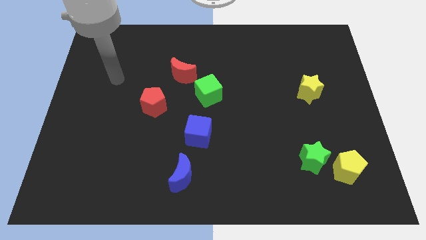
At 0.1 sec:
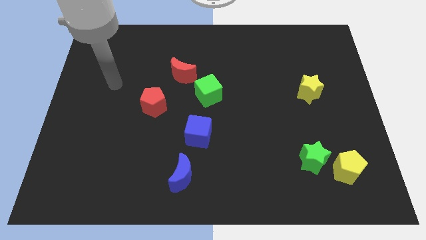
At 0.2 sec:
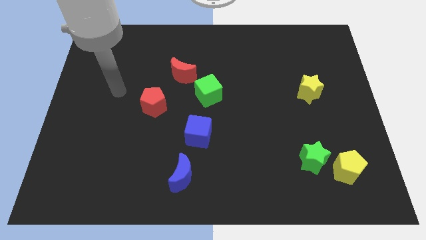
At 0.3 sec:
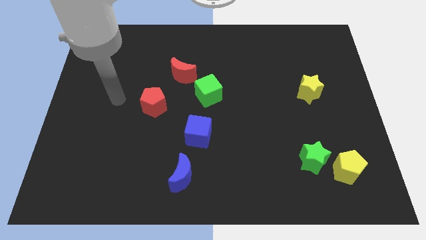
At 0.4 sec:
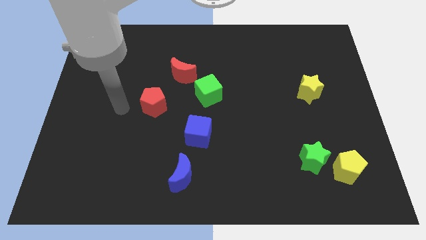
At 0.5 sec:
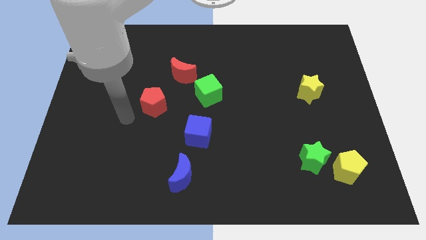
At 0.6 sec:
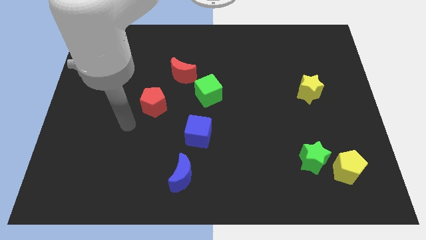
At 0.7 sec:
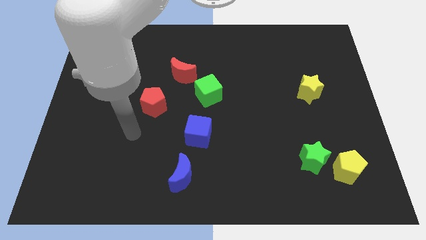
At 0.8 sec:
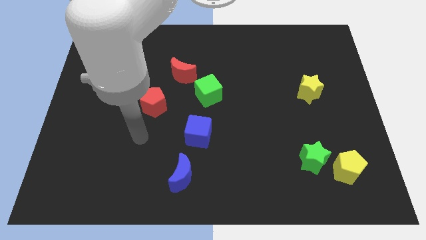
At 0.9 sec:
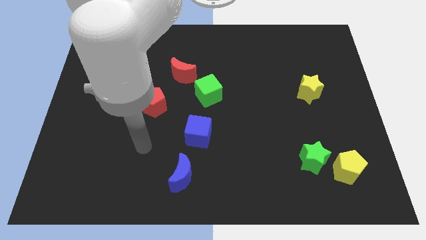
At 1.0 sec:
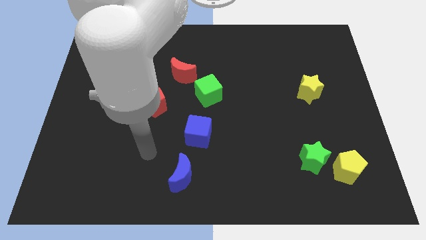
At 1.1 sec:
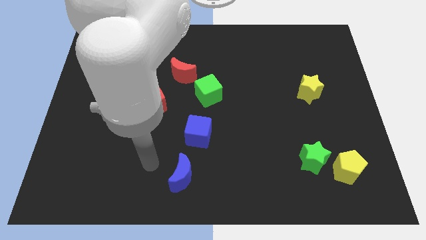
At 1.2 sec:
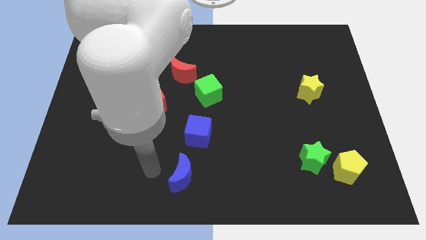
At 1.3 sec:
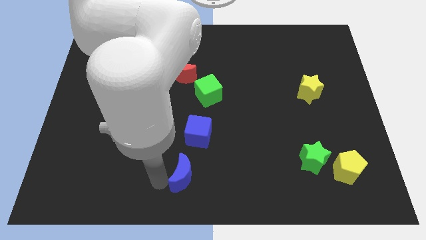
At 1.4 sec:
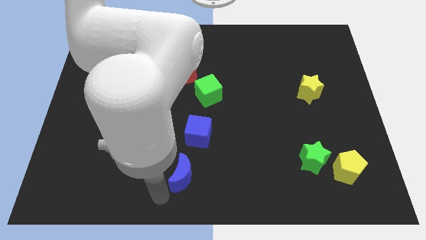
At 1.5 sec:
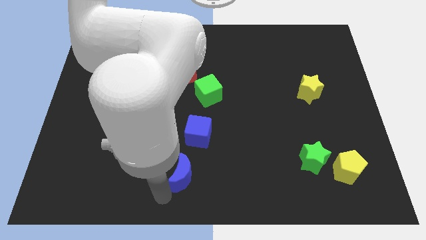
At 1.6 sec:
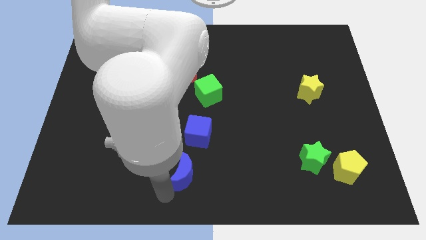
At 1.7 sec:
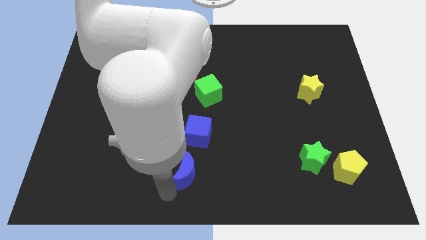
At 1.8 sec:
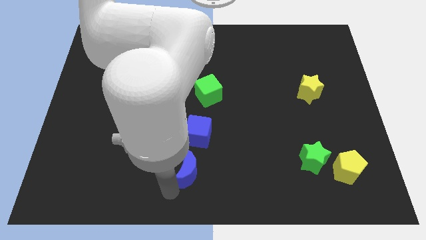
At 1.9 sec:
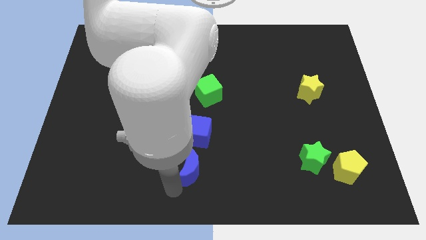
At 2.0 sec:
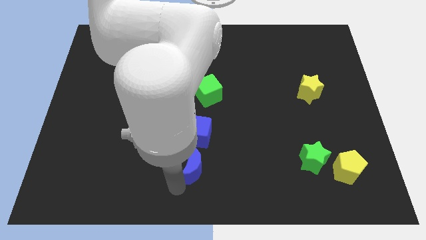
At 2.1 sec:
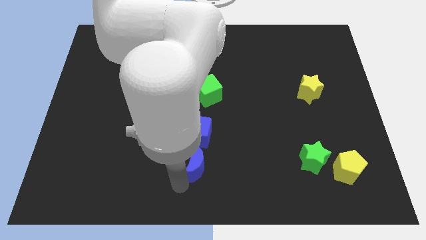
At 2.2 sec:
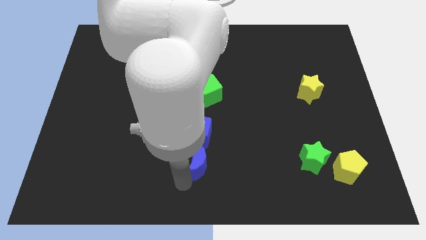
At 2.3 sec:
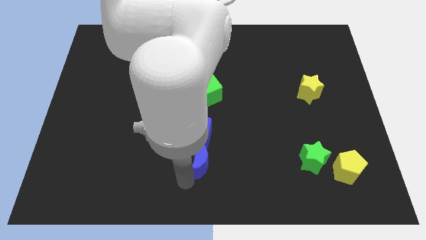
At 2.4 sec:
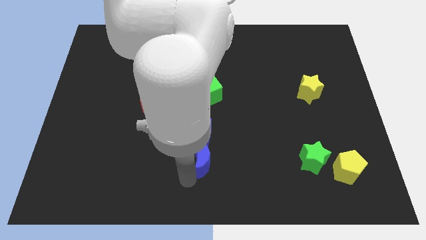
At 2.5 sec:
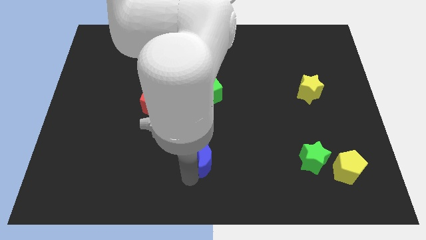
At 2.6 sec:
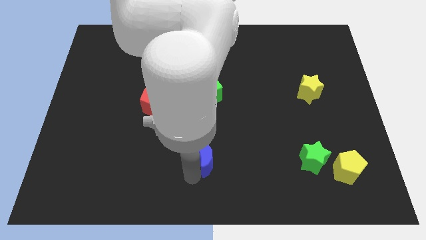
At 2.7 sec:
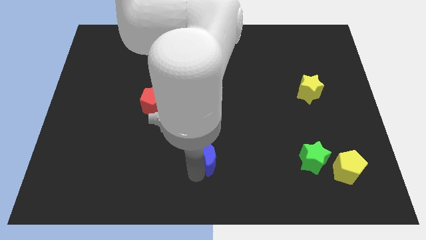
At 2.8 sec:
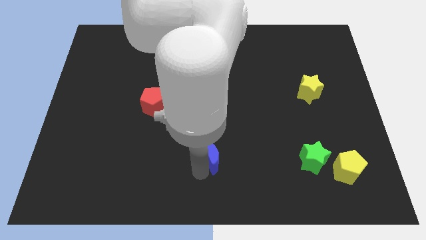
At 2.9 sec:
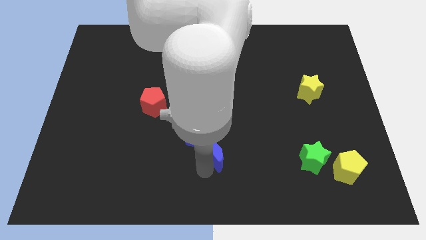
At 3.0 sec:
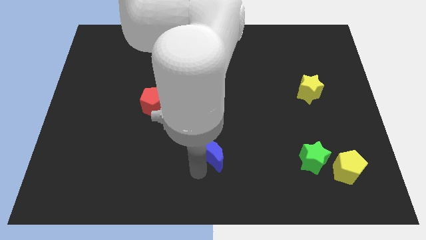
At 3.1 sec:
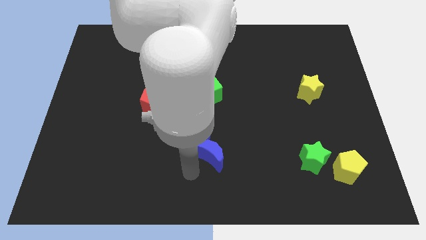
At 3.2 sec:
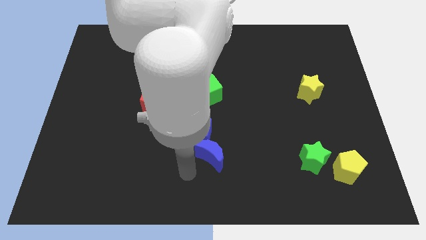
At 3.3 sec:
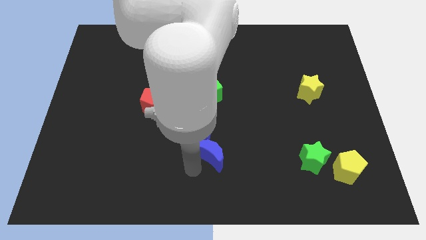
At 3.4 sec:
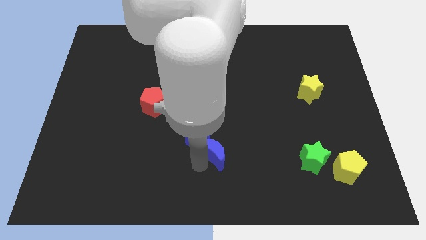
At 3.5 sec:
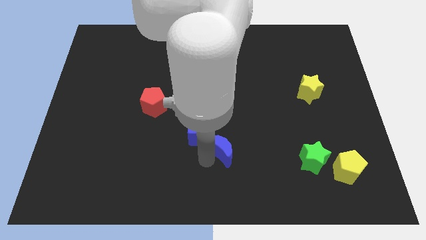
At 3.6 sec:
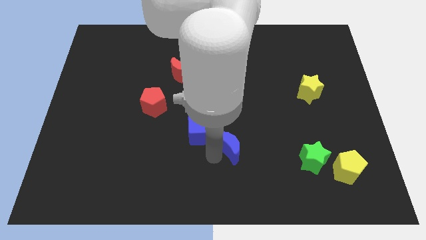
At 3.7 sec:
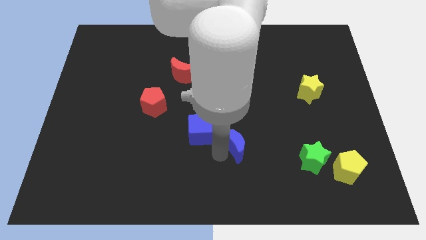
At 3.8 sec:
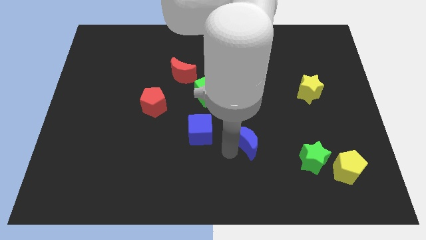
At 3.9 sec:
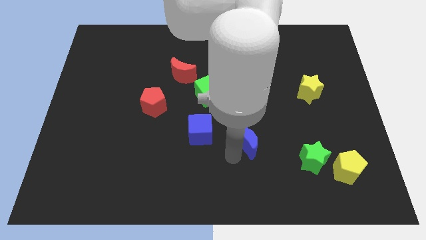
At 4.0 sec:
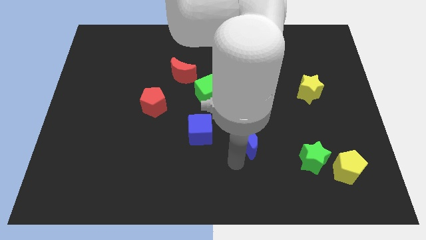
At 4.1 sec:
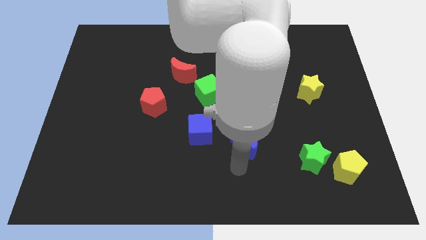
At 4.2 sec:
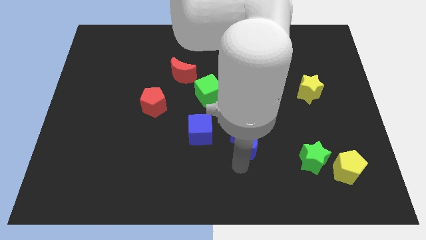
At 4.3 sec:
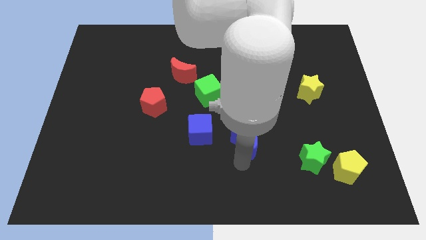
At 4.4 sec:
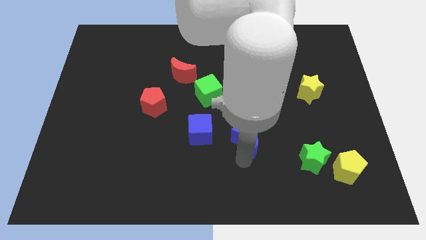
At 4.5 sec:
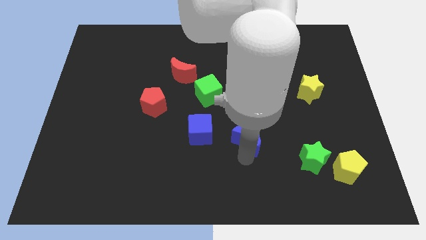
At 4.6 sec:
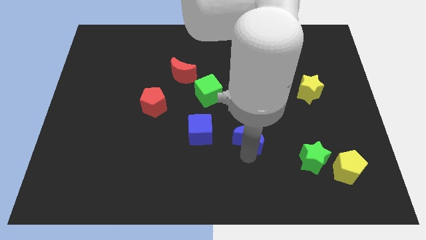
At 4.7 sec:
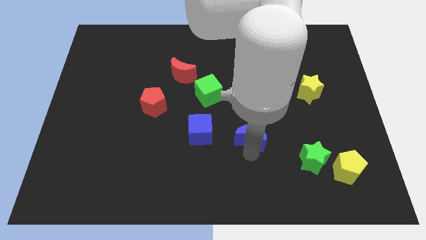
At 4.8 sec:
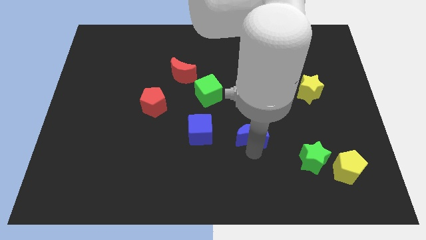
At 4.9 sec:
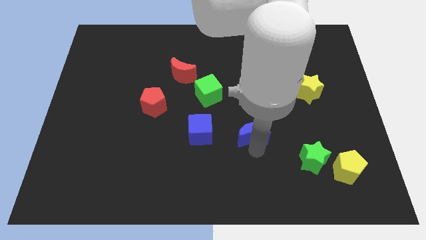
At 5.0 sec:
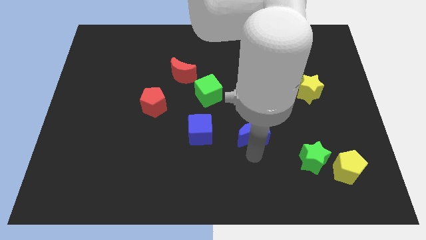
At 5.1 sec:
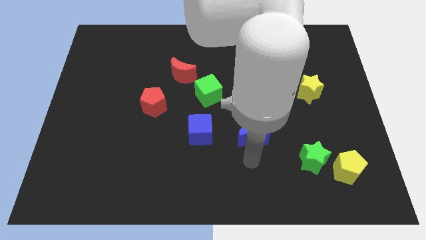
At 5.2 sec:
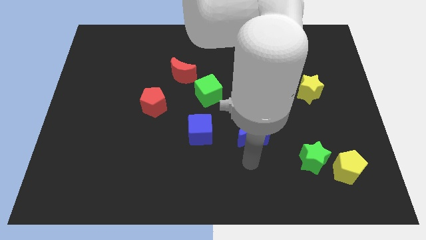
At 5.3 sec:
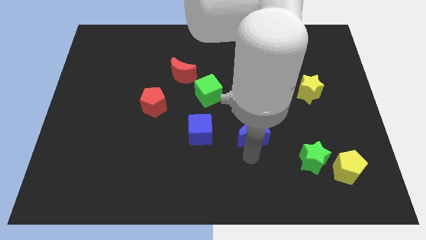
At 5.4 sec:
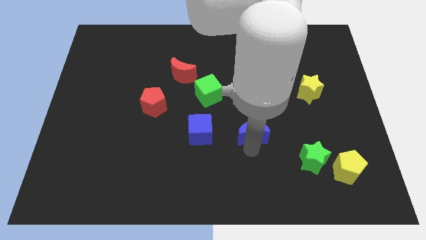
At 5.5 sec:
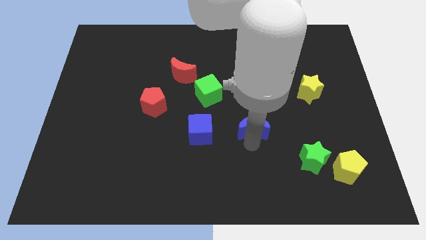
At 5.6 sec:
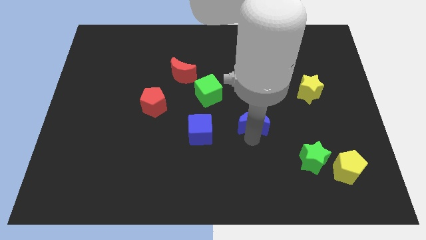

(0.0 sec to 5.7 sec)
slide the blue moon up and then right

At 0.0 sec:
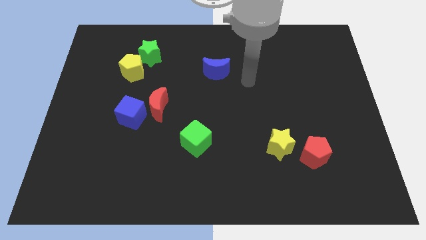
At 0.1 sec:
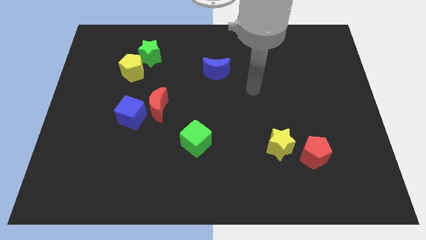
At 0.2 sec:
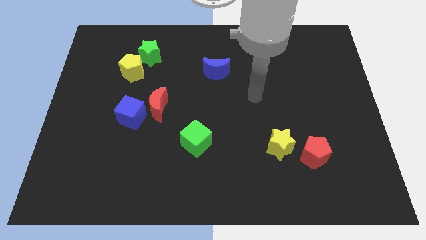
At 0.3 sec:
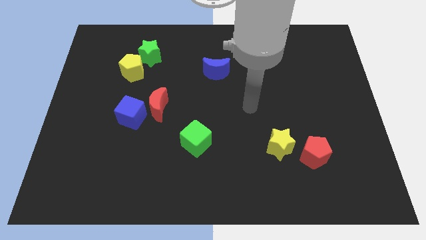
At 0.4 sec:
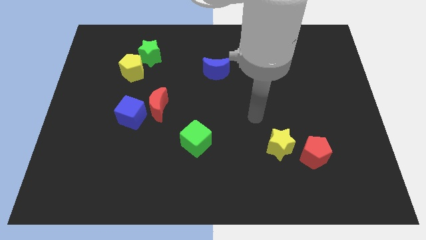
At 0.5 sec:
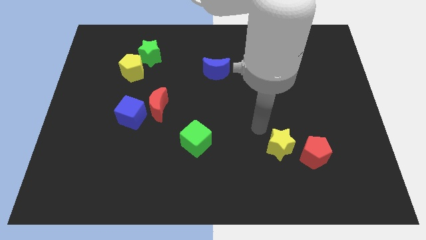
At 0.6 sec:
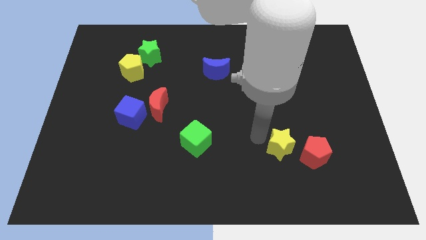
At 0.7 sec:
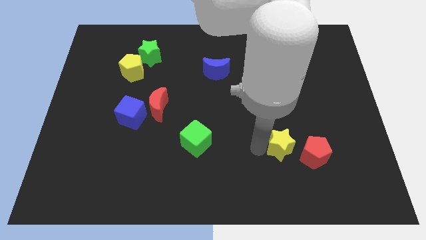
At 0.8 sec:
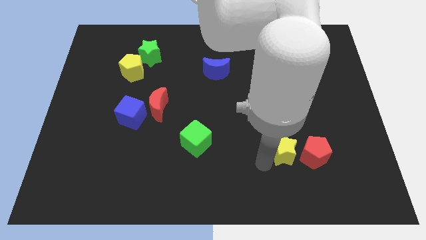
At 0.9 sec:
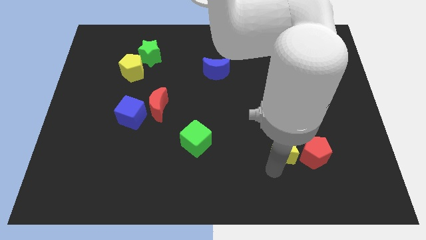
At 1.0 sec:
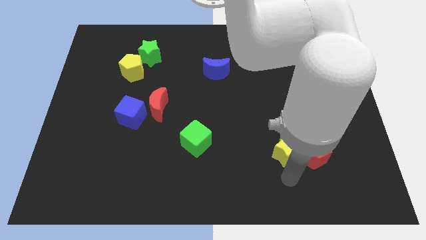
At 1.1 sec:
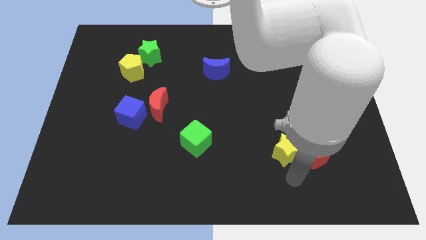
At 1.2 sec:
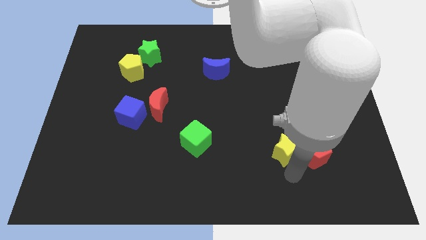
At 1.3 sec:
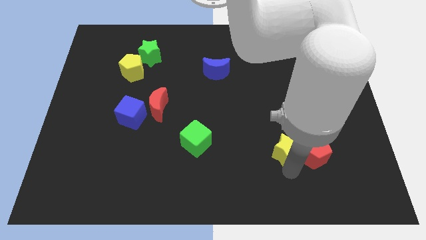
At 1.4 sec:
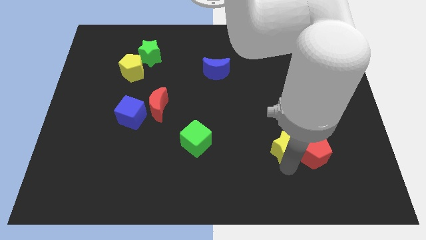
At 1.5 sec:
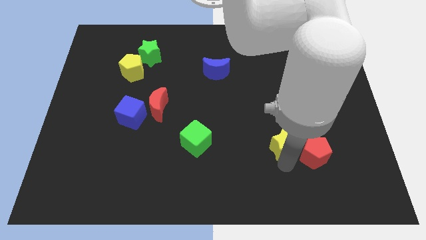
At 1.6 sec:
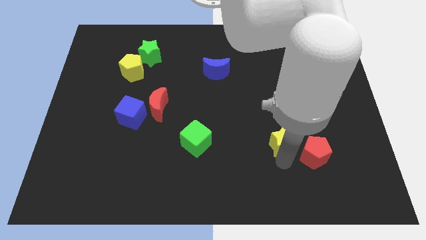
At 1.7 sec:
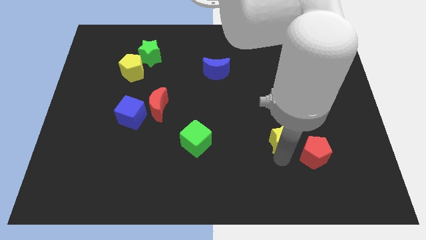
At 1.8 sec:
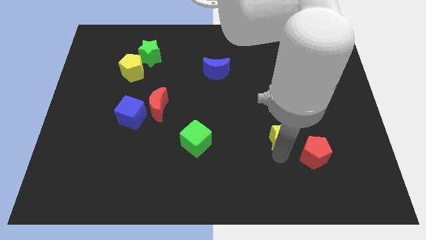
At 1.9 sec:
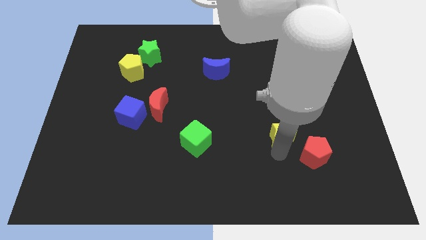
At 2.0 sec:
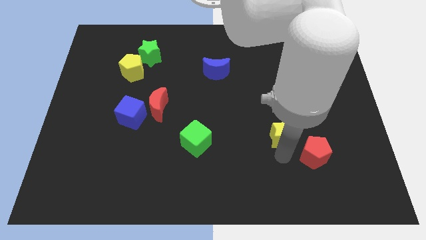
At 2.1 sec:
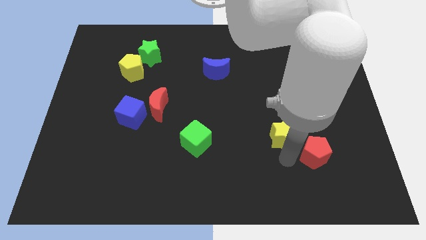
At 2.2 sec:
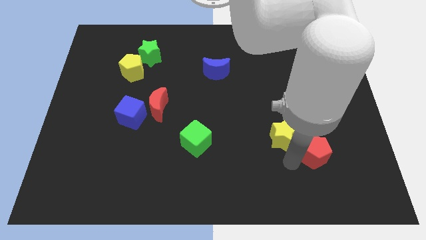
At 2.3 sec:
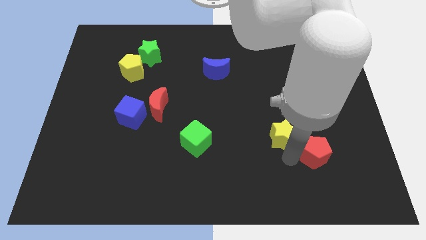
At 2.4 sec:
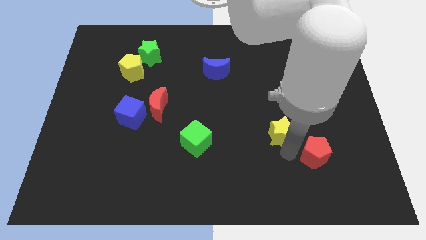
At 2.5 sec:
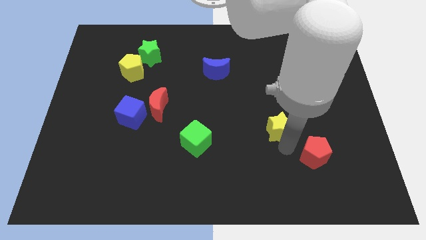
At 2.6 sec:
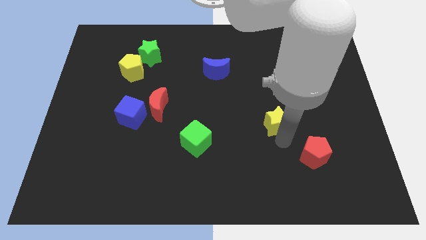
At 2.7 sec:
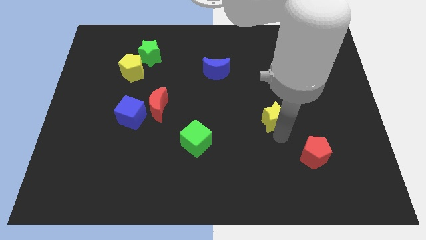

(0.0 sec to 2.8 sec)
slide the yellow star up somewhat
